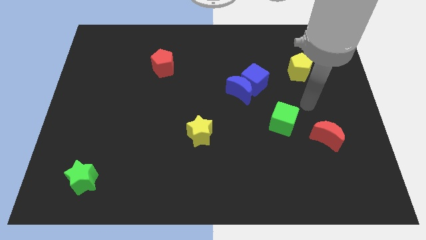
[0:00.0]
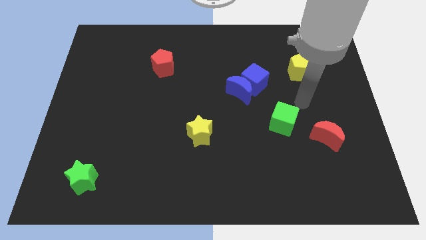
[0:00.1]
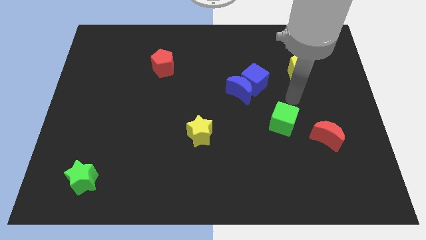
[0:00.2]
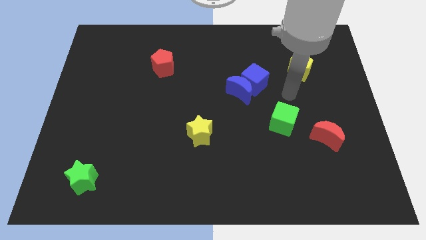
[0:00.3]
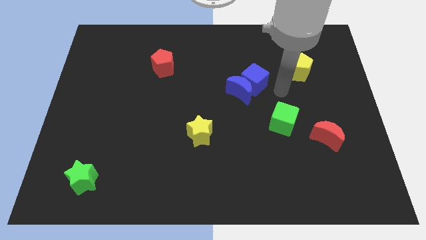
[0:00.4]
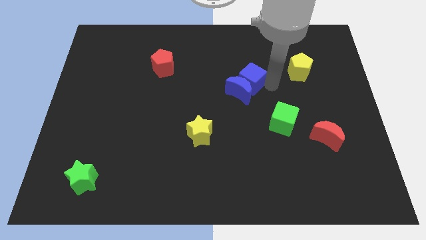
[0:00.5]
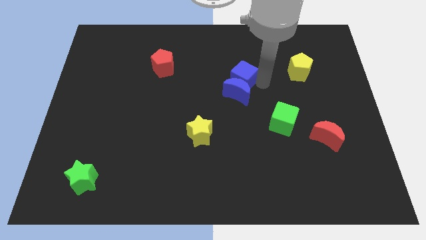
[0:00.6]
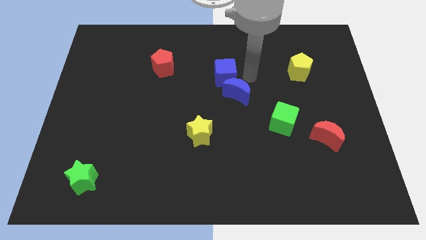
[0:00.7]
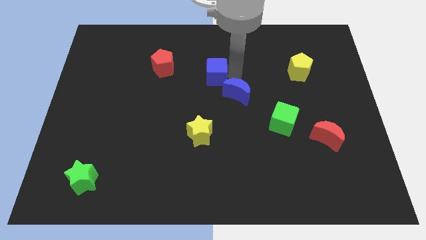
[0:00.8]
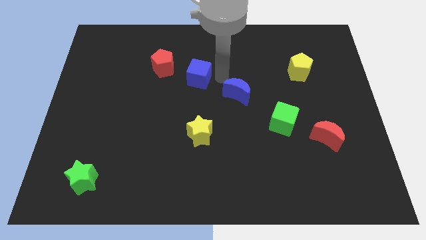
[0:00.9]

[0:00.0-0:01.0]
move the blue moon away from the blue cube

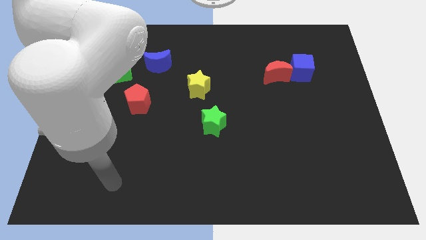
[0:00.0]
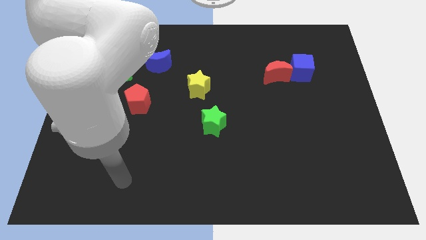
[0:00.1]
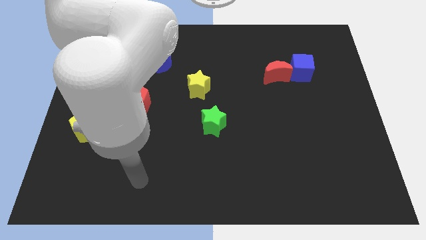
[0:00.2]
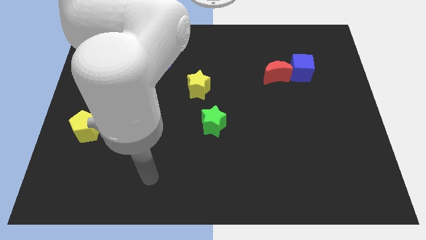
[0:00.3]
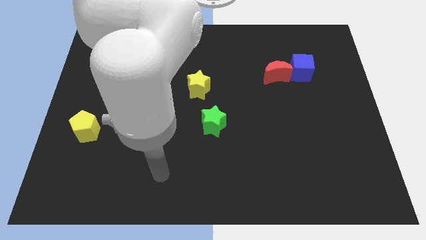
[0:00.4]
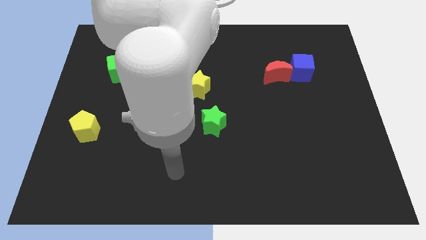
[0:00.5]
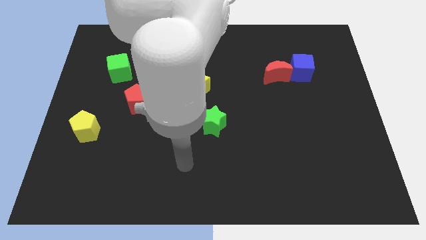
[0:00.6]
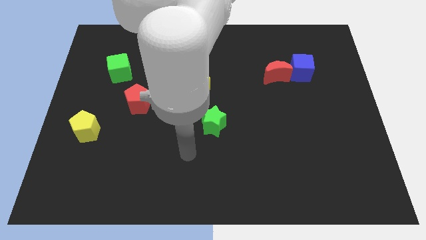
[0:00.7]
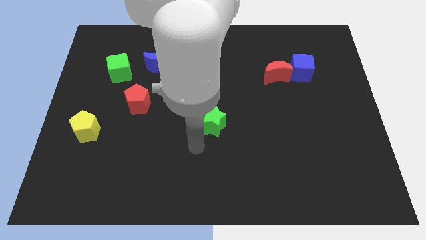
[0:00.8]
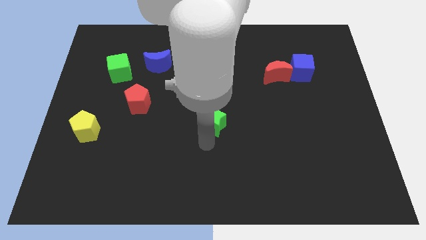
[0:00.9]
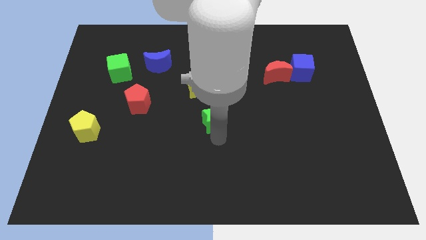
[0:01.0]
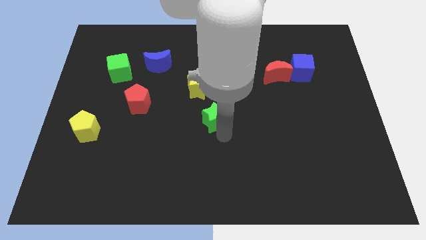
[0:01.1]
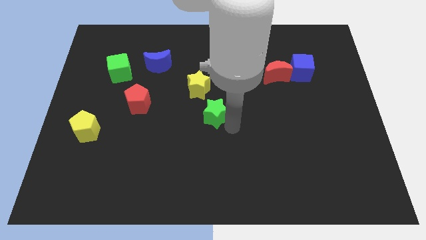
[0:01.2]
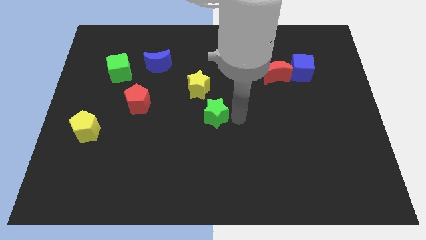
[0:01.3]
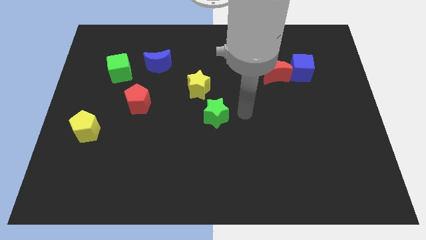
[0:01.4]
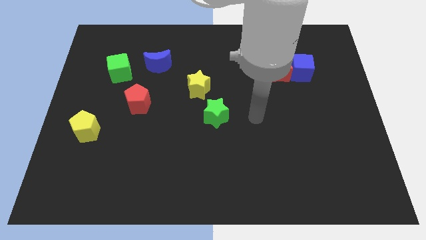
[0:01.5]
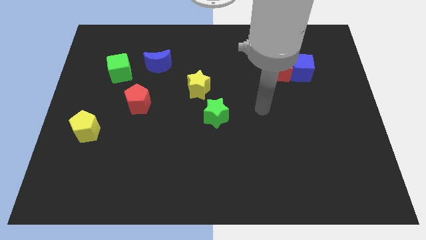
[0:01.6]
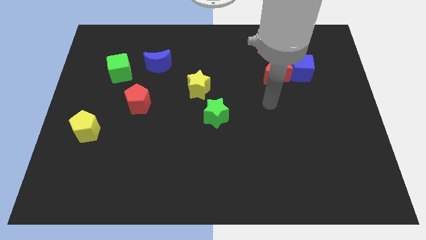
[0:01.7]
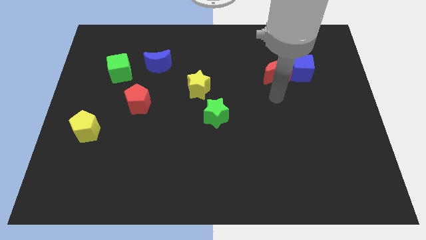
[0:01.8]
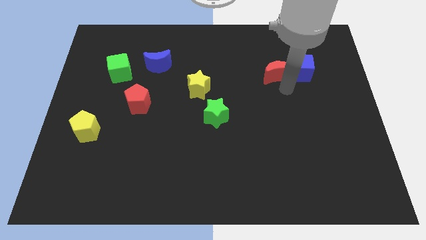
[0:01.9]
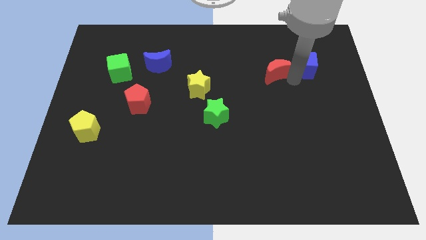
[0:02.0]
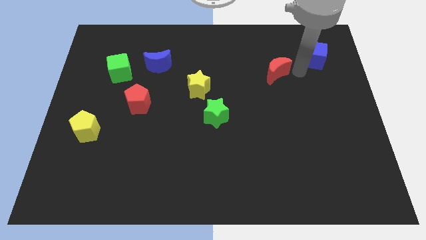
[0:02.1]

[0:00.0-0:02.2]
move the red moon away from the blue cube

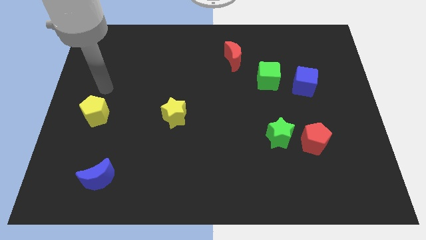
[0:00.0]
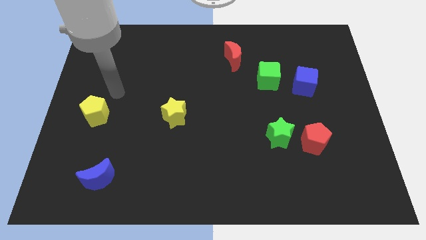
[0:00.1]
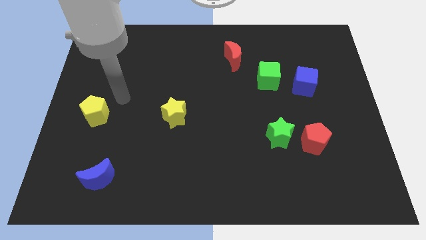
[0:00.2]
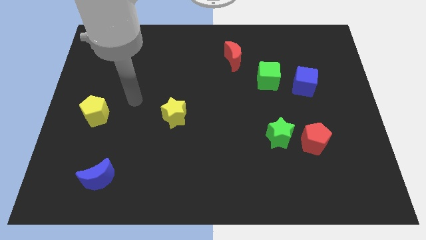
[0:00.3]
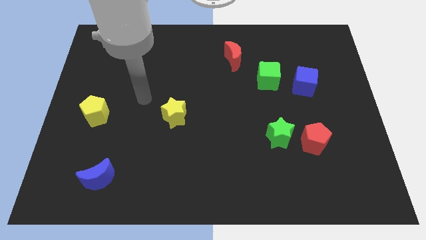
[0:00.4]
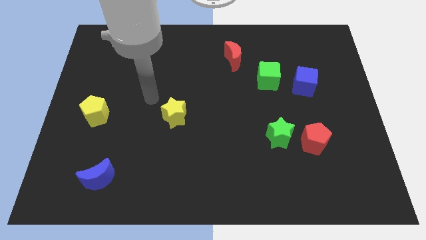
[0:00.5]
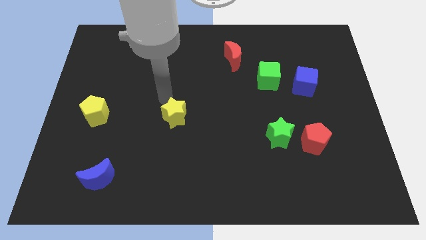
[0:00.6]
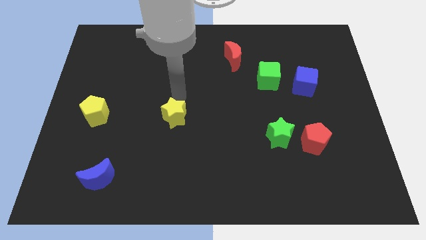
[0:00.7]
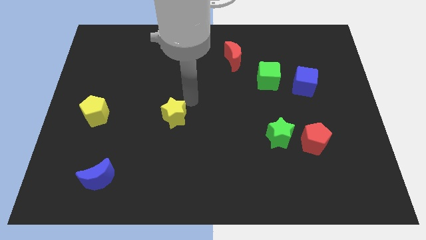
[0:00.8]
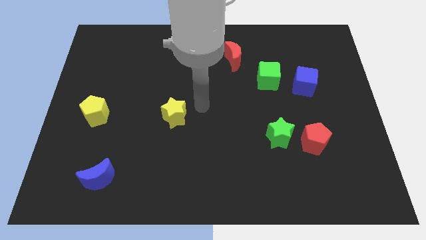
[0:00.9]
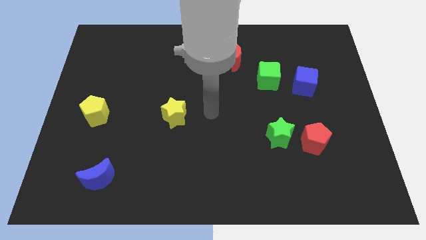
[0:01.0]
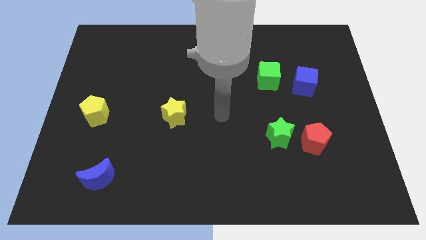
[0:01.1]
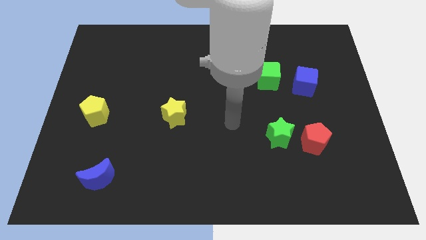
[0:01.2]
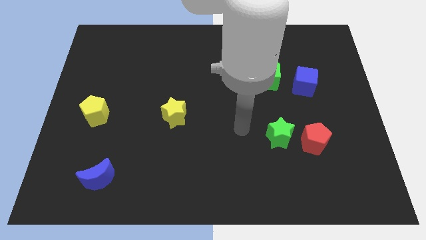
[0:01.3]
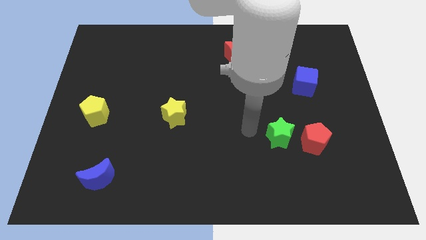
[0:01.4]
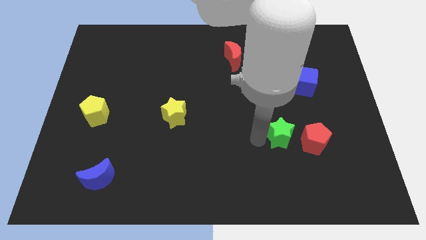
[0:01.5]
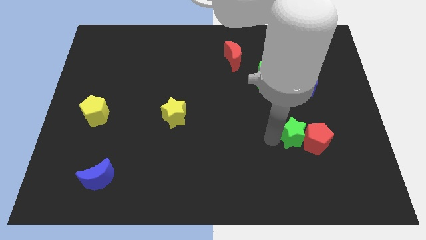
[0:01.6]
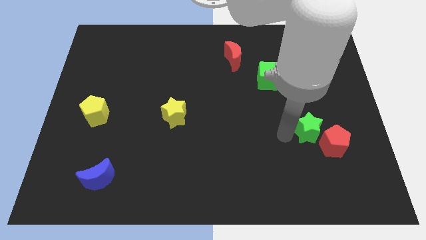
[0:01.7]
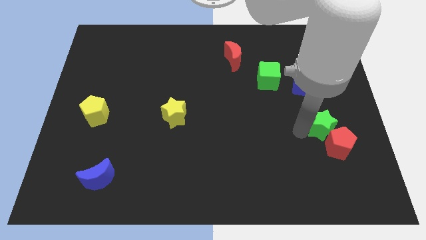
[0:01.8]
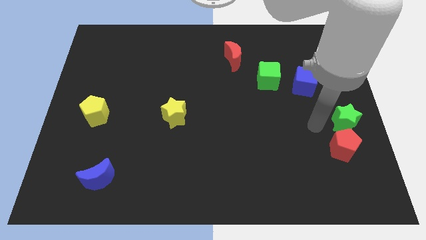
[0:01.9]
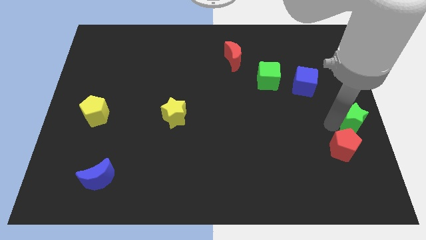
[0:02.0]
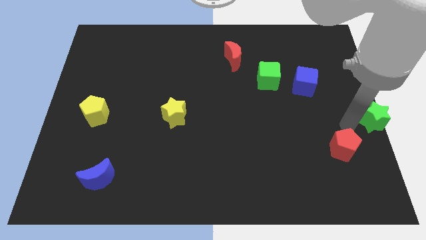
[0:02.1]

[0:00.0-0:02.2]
pull the red pentagon apart from the green star

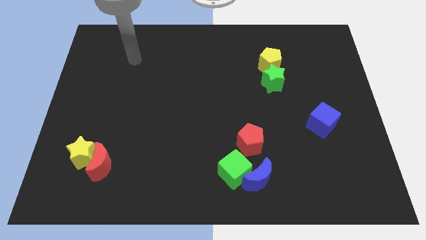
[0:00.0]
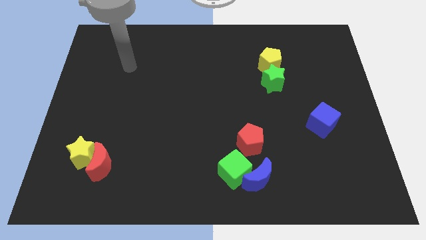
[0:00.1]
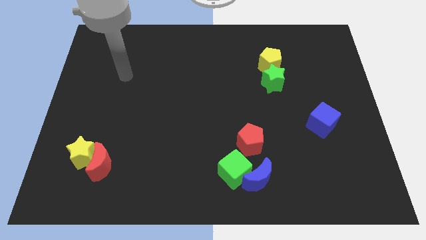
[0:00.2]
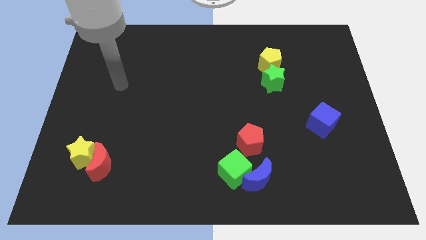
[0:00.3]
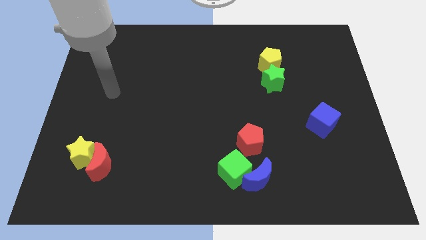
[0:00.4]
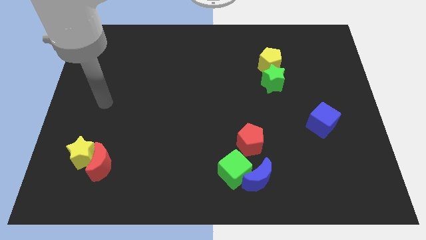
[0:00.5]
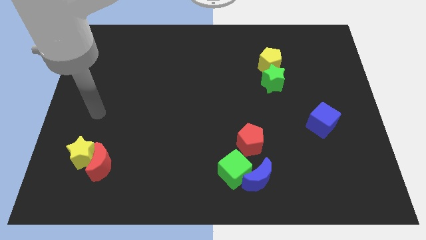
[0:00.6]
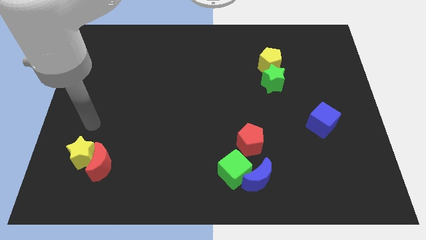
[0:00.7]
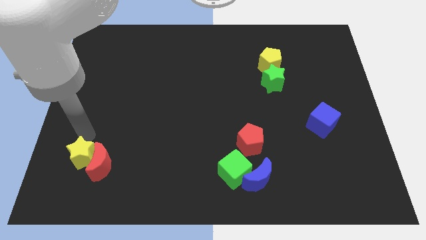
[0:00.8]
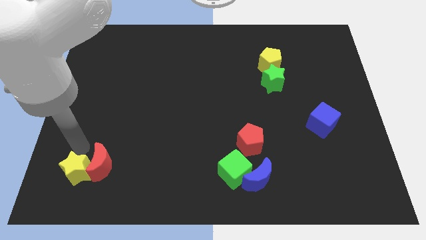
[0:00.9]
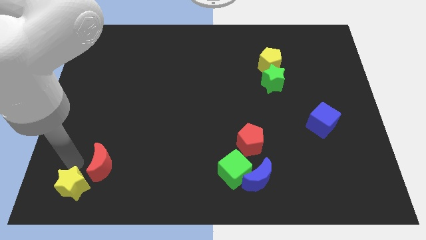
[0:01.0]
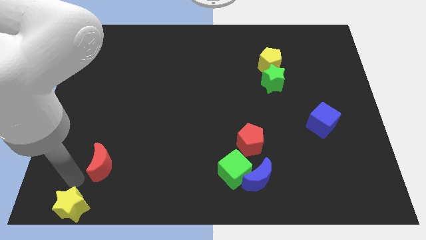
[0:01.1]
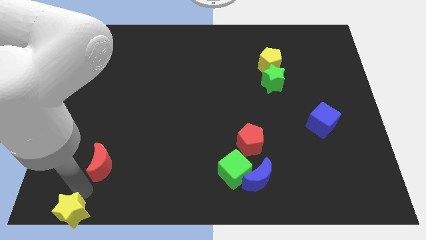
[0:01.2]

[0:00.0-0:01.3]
pull the red moon apart from the yellow star

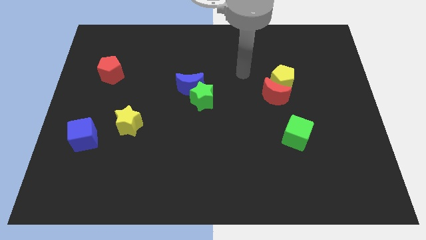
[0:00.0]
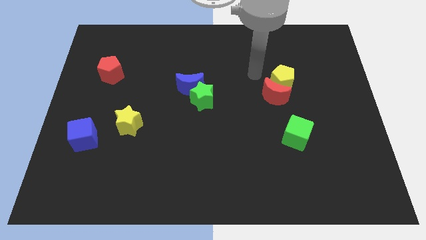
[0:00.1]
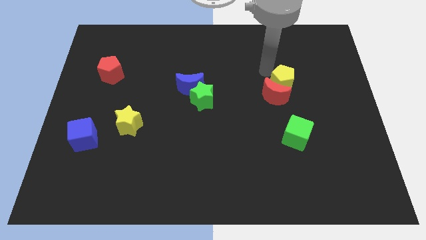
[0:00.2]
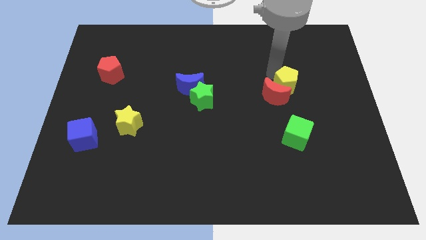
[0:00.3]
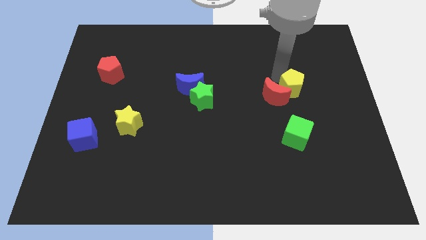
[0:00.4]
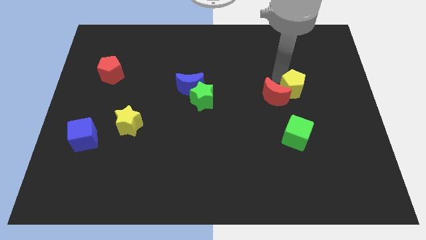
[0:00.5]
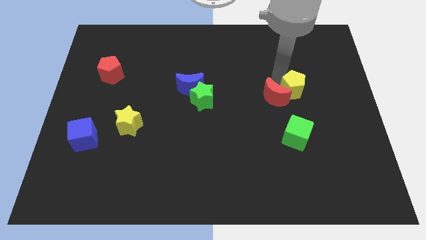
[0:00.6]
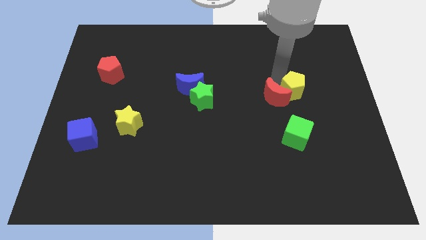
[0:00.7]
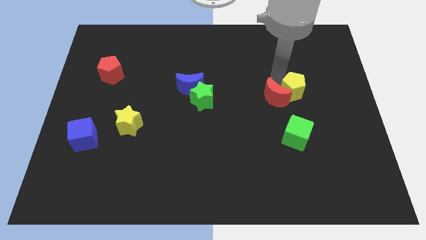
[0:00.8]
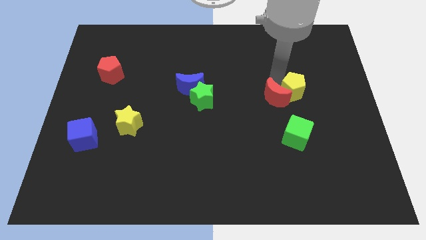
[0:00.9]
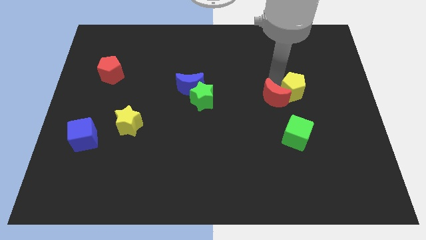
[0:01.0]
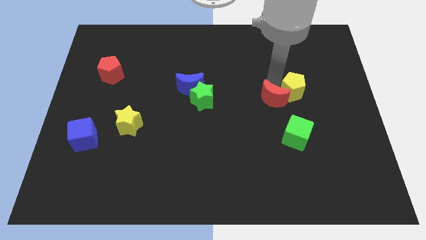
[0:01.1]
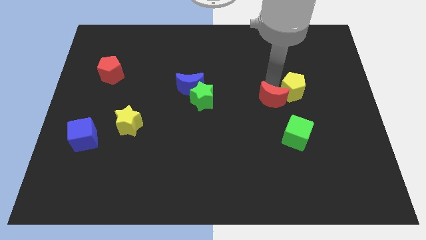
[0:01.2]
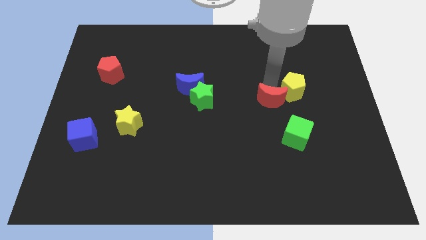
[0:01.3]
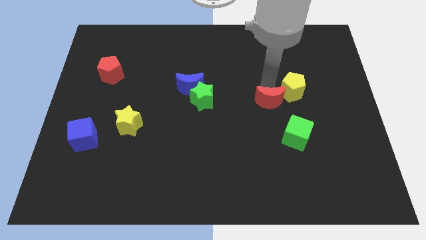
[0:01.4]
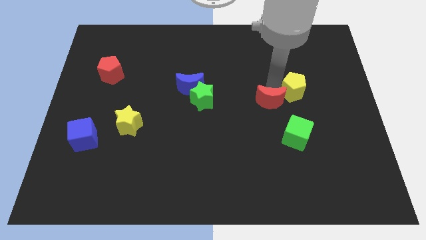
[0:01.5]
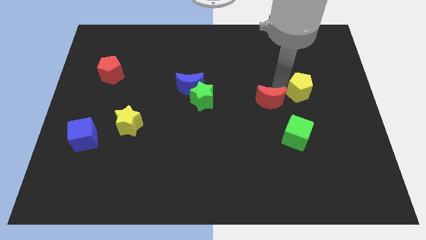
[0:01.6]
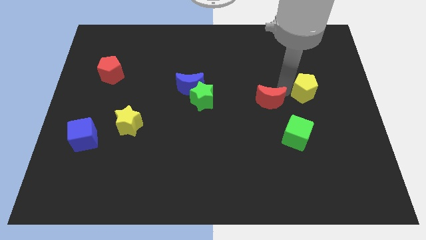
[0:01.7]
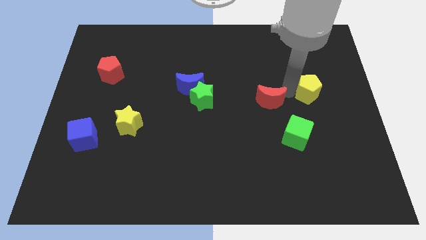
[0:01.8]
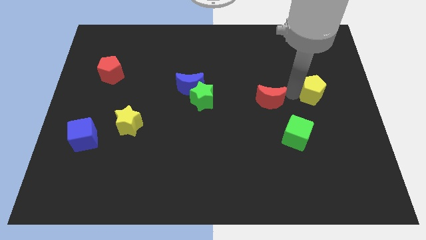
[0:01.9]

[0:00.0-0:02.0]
pull the red moon apart from the yellow pentagon

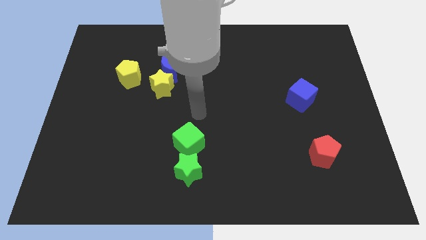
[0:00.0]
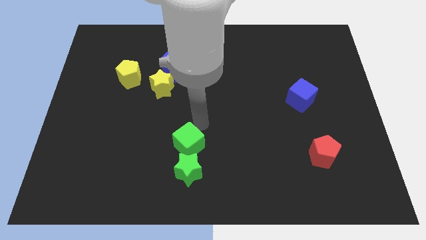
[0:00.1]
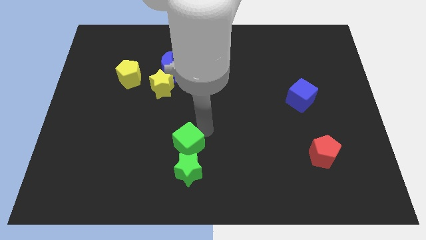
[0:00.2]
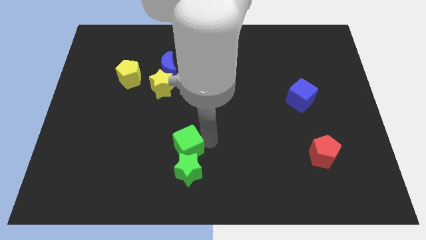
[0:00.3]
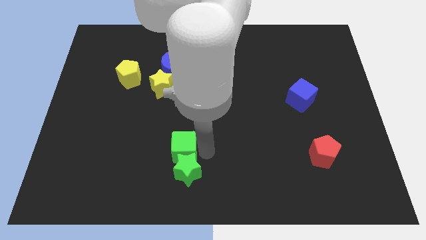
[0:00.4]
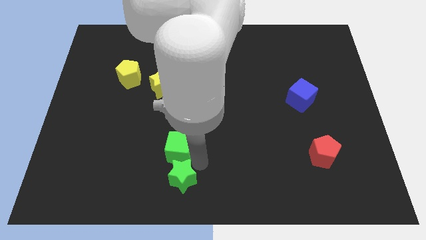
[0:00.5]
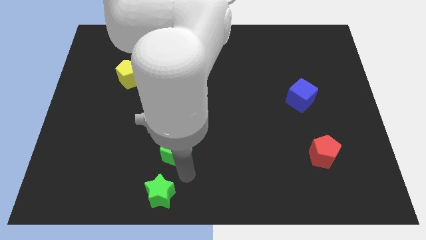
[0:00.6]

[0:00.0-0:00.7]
move the green cube away from the green star

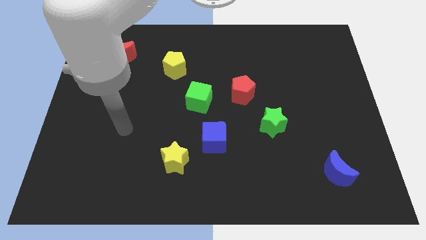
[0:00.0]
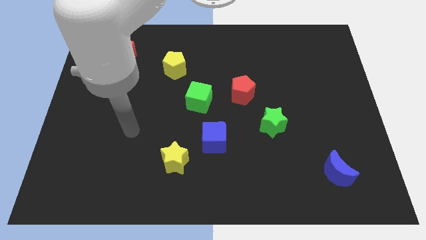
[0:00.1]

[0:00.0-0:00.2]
move the blue cube away from the yellow star
